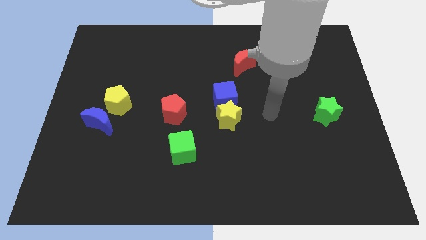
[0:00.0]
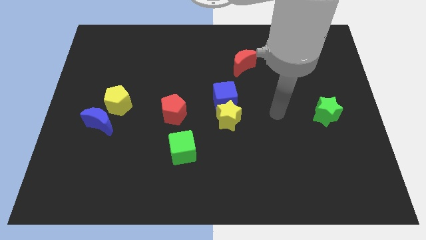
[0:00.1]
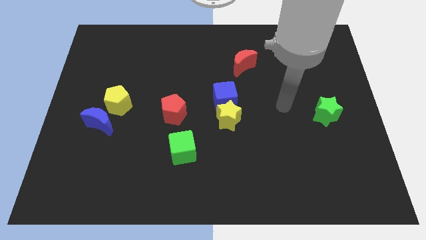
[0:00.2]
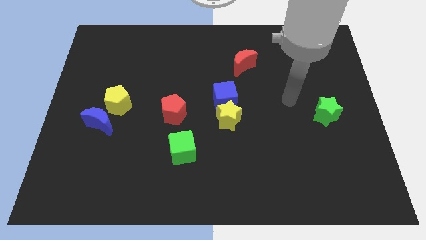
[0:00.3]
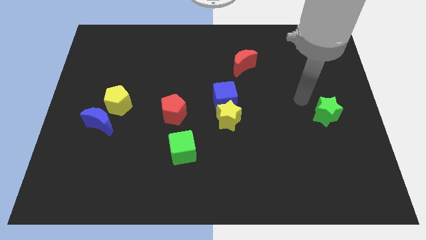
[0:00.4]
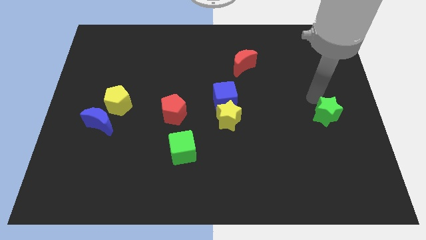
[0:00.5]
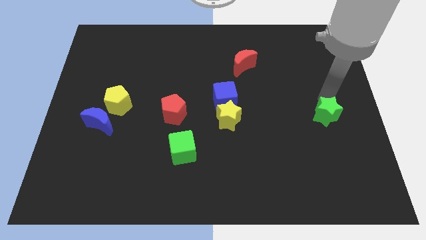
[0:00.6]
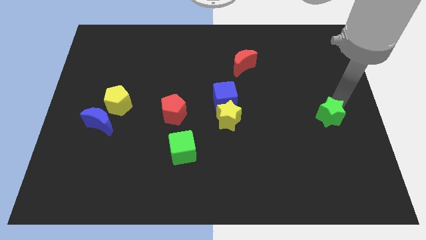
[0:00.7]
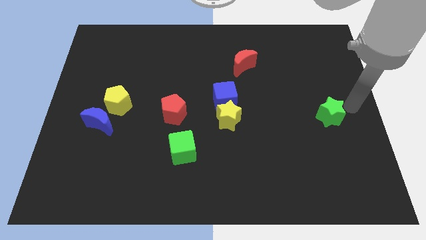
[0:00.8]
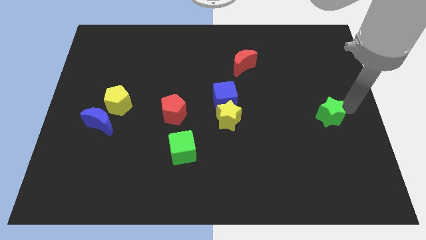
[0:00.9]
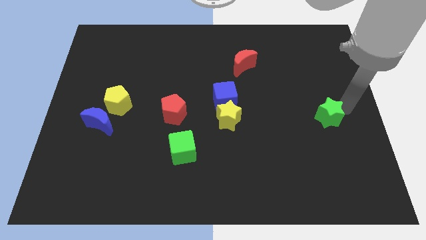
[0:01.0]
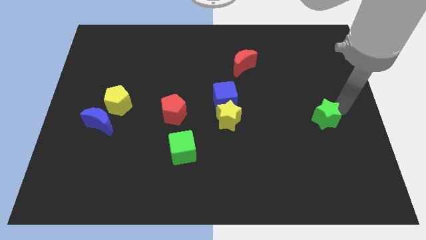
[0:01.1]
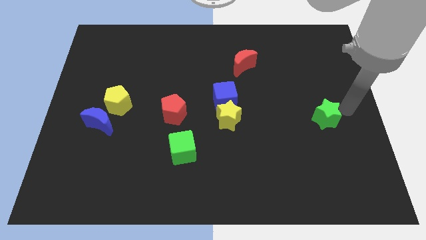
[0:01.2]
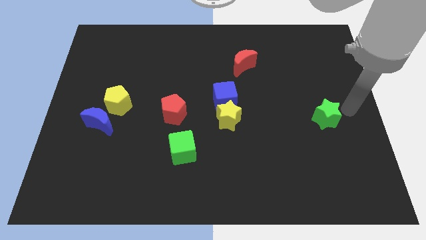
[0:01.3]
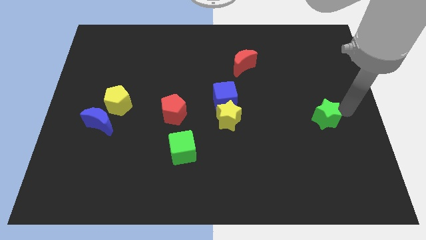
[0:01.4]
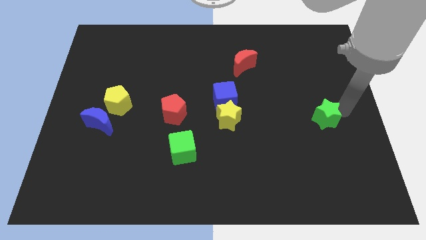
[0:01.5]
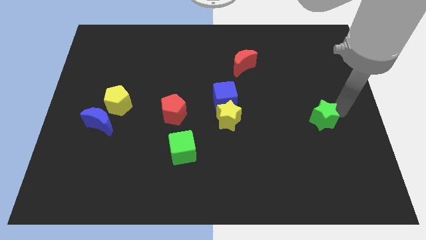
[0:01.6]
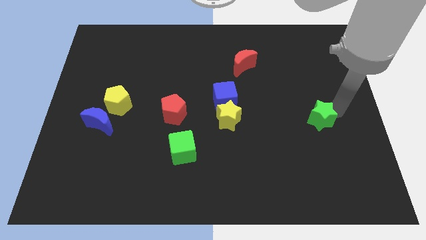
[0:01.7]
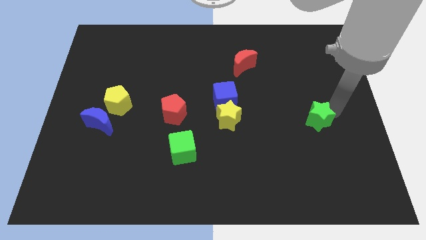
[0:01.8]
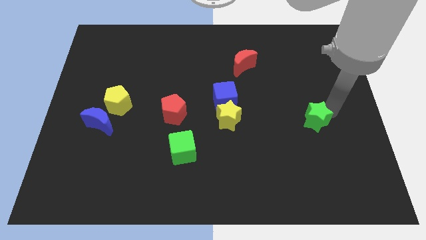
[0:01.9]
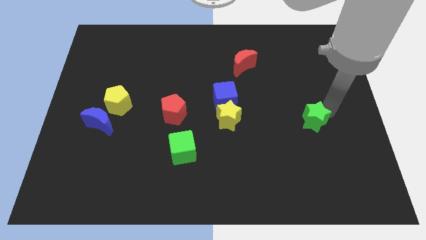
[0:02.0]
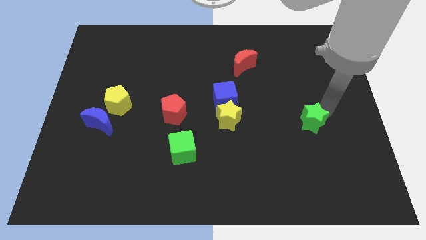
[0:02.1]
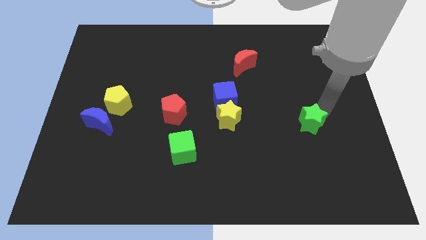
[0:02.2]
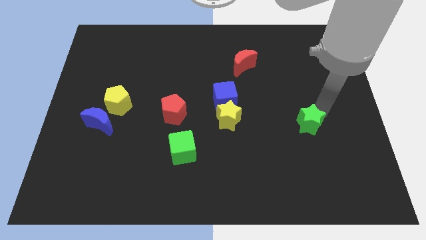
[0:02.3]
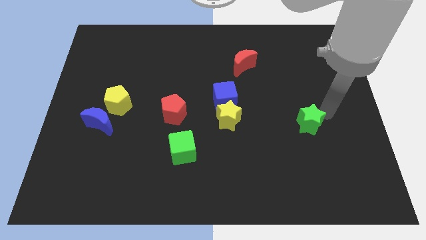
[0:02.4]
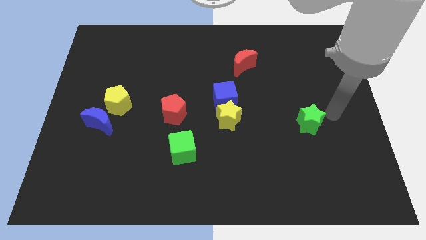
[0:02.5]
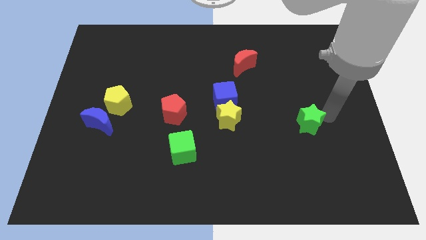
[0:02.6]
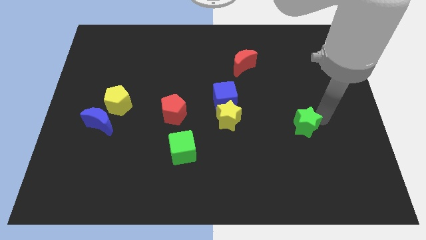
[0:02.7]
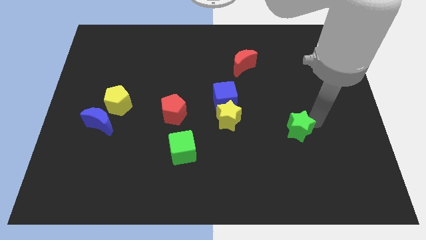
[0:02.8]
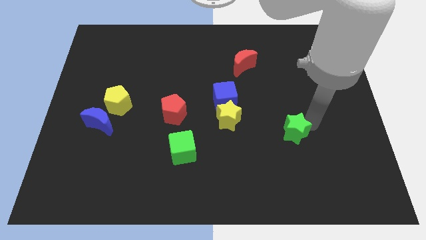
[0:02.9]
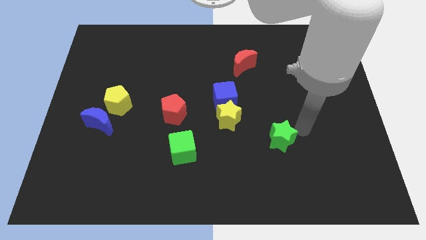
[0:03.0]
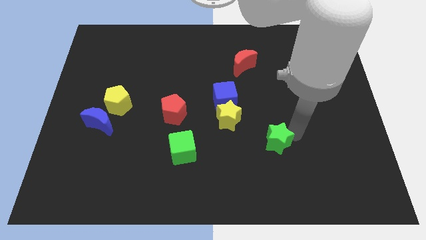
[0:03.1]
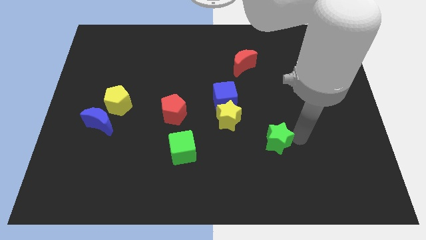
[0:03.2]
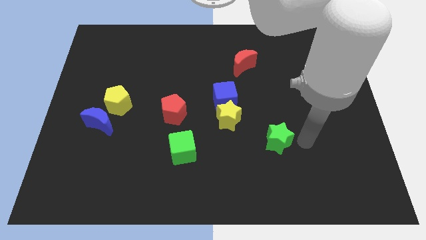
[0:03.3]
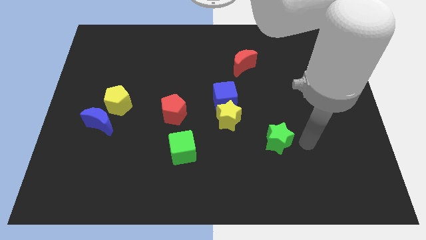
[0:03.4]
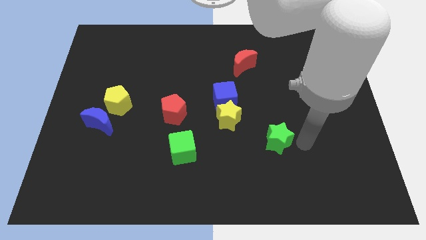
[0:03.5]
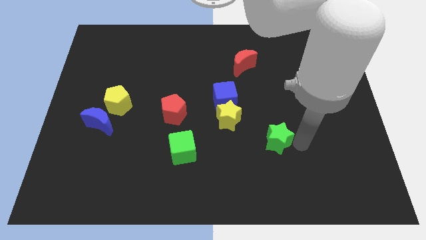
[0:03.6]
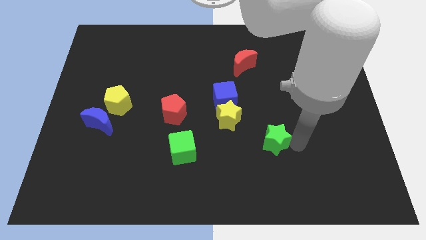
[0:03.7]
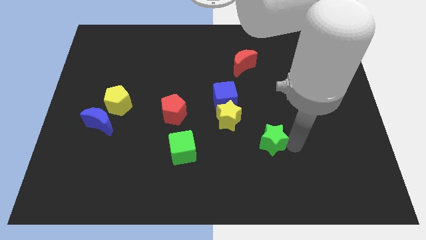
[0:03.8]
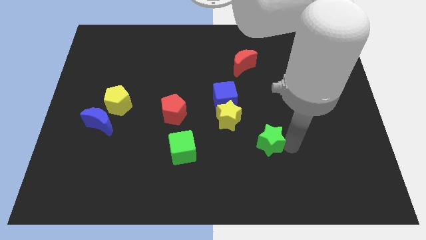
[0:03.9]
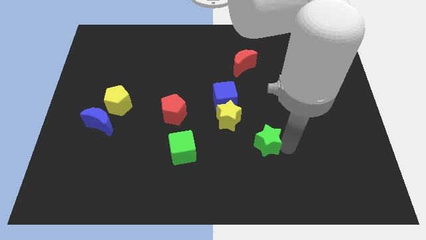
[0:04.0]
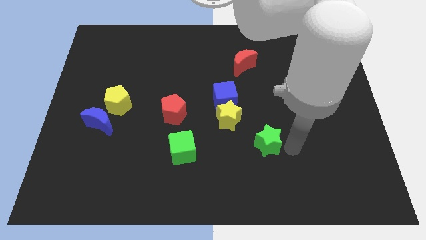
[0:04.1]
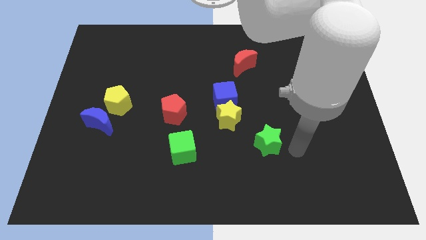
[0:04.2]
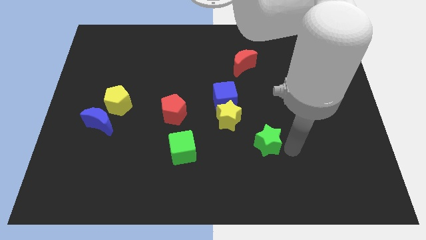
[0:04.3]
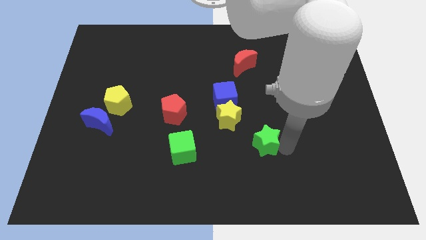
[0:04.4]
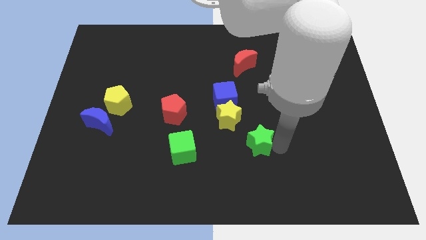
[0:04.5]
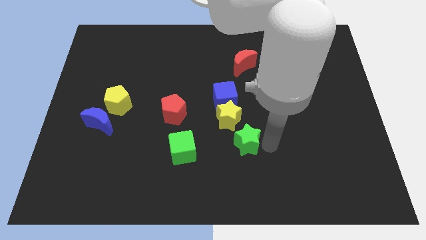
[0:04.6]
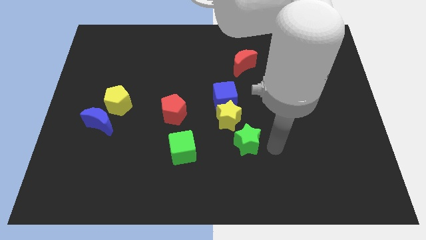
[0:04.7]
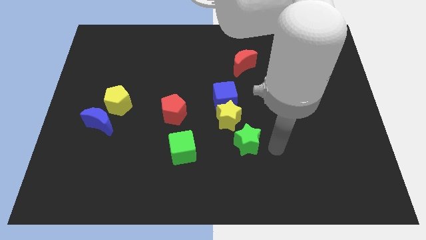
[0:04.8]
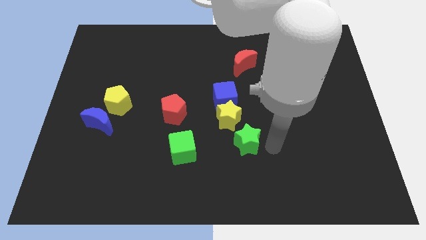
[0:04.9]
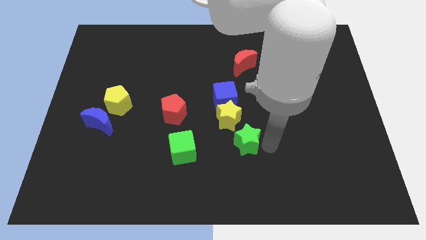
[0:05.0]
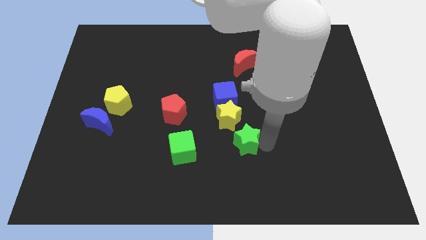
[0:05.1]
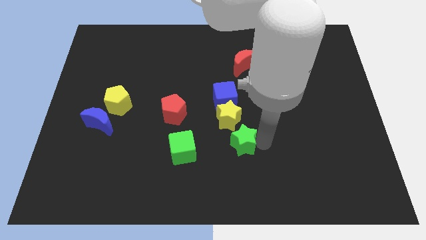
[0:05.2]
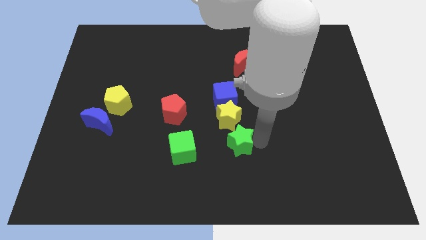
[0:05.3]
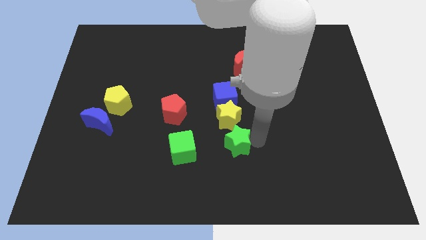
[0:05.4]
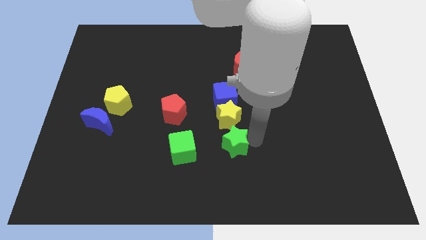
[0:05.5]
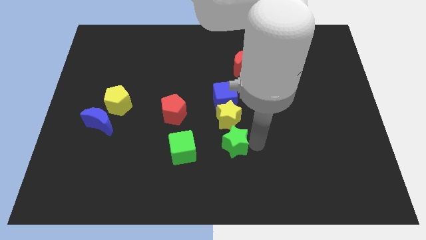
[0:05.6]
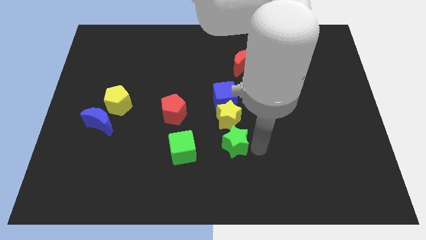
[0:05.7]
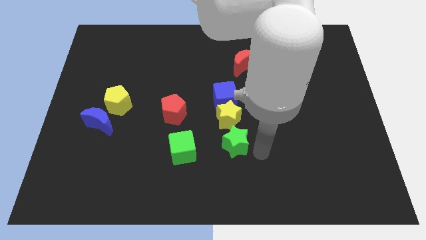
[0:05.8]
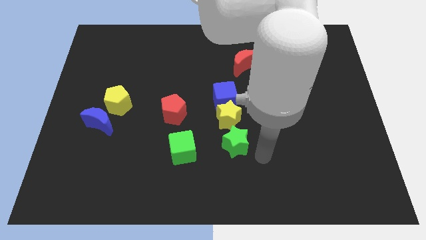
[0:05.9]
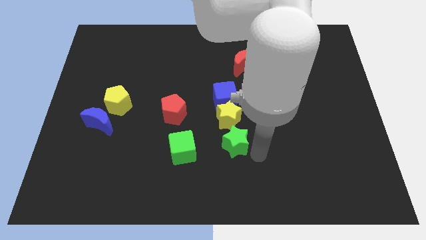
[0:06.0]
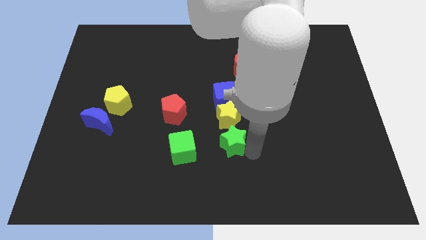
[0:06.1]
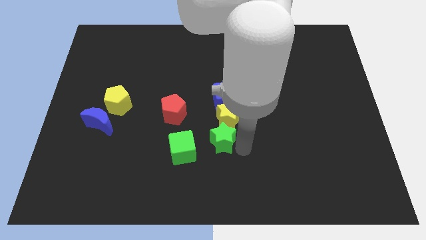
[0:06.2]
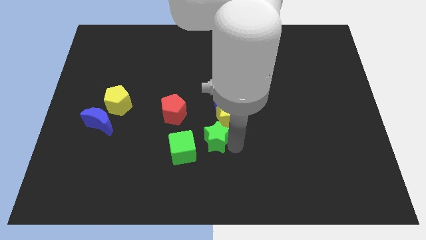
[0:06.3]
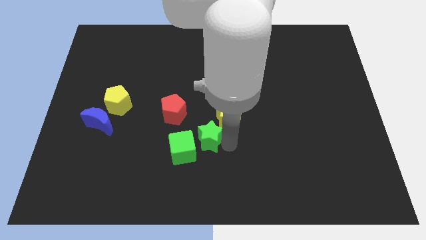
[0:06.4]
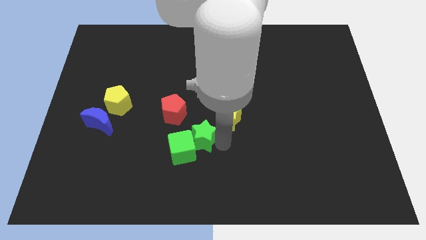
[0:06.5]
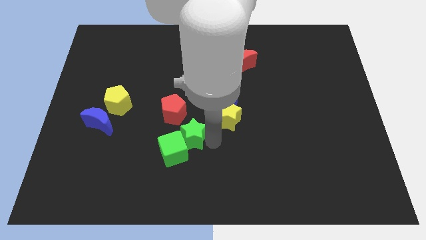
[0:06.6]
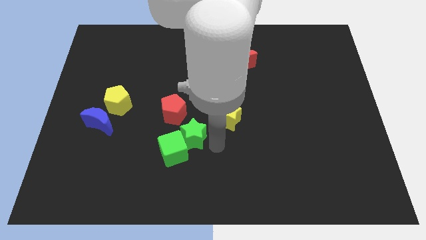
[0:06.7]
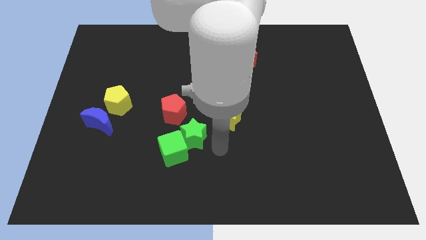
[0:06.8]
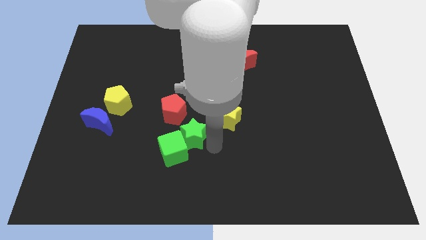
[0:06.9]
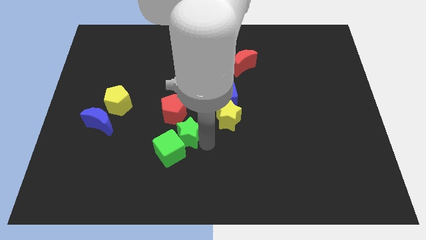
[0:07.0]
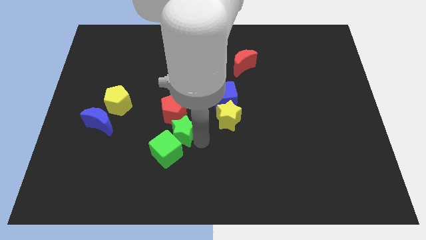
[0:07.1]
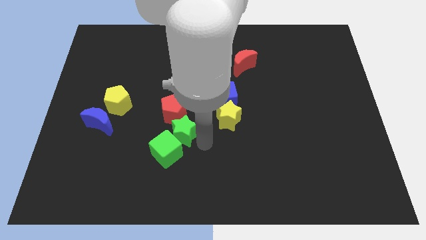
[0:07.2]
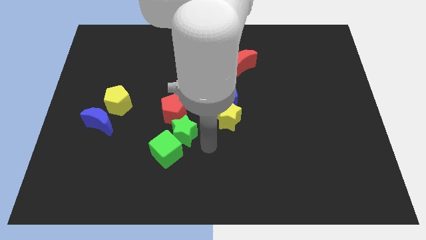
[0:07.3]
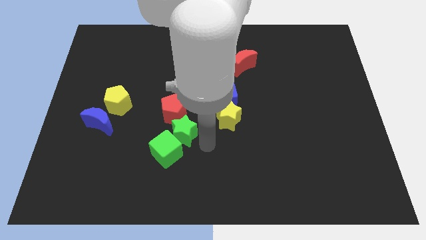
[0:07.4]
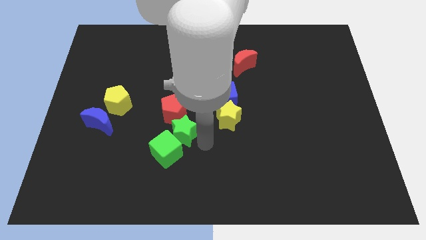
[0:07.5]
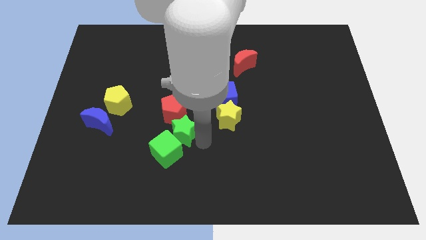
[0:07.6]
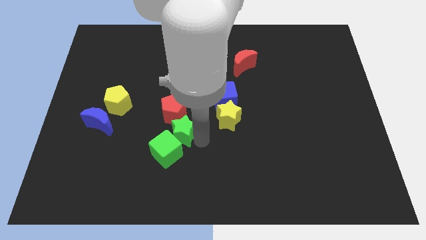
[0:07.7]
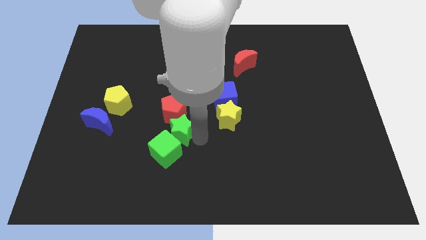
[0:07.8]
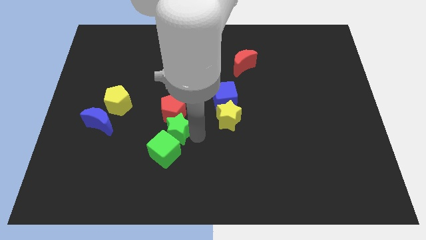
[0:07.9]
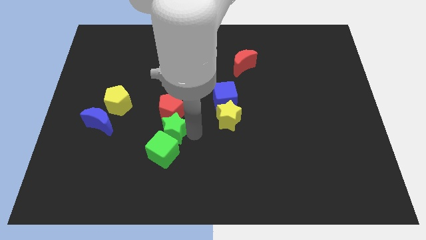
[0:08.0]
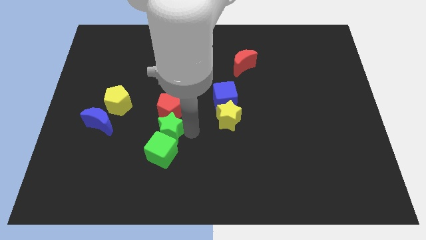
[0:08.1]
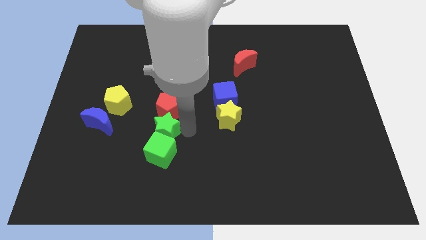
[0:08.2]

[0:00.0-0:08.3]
slide the green star to the right side of the blue moon
